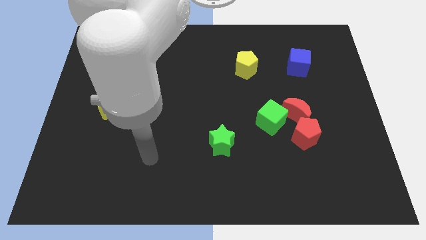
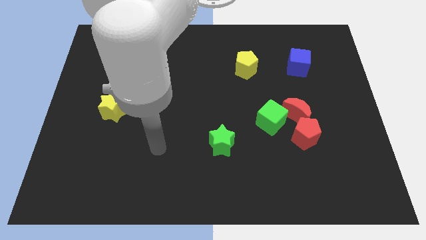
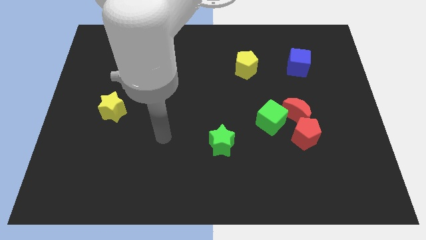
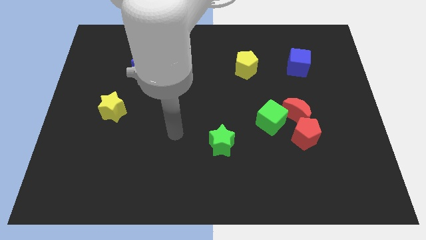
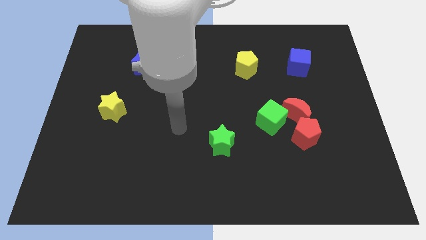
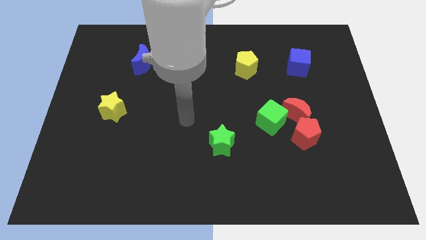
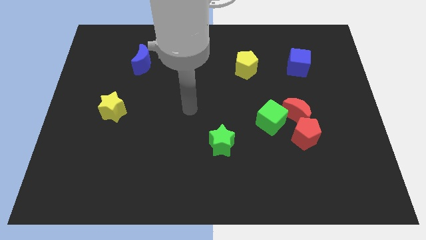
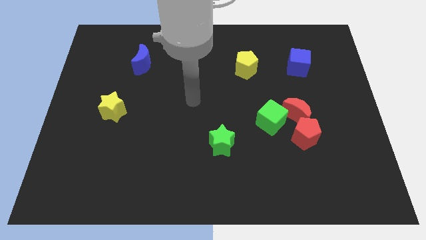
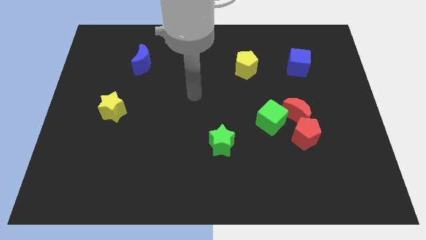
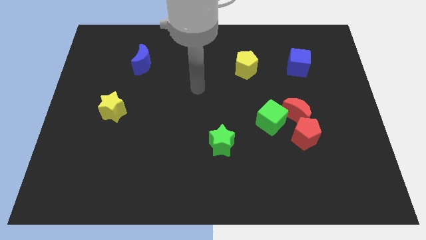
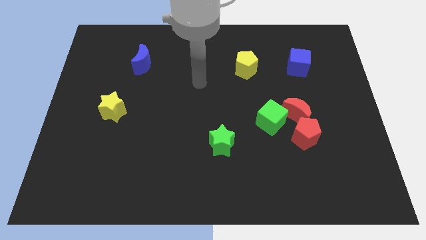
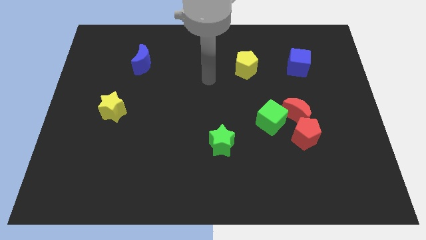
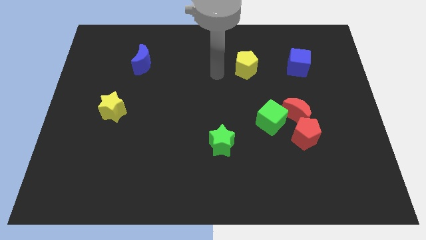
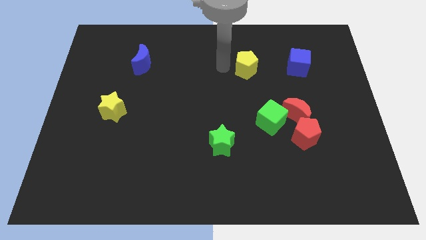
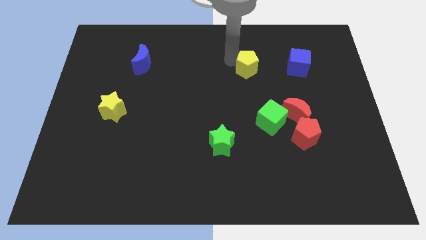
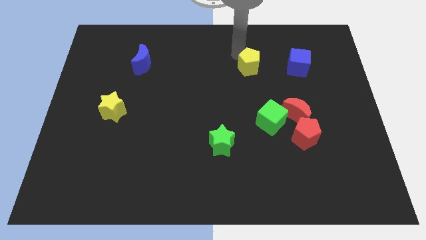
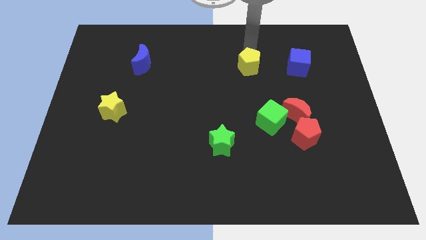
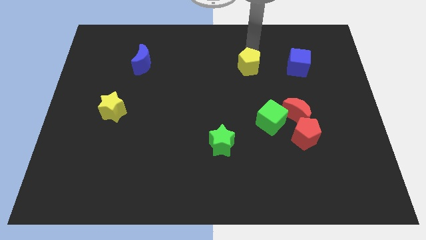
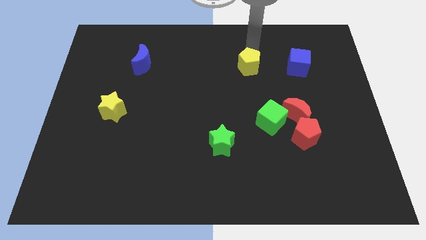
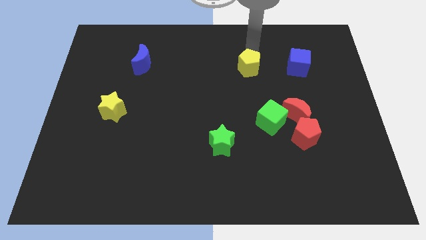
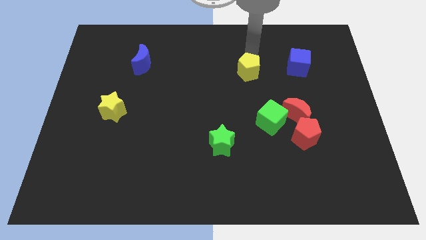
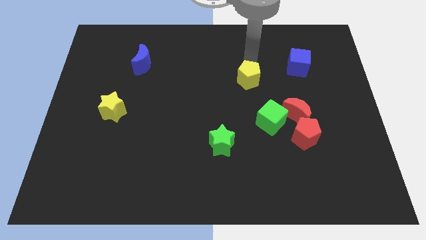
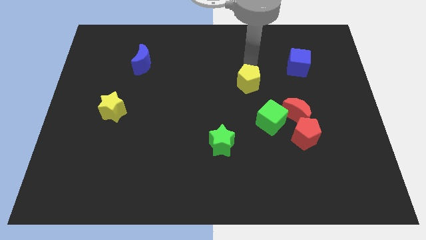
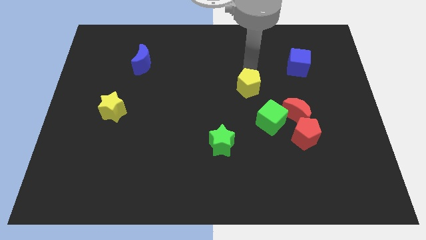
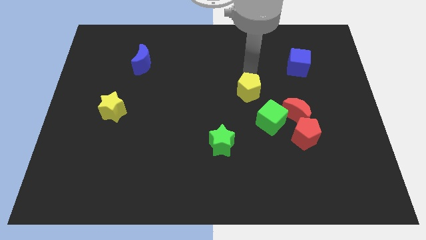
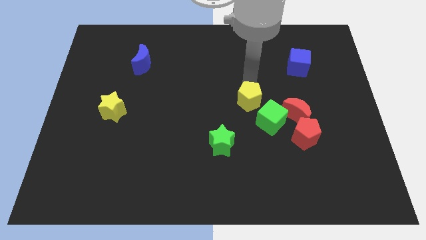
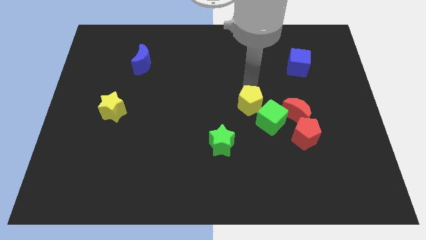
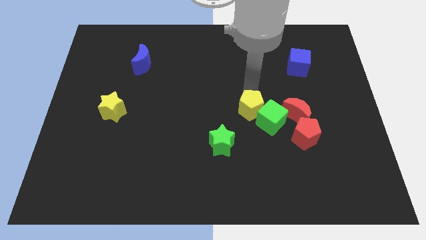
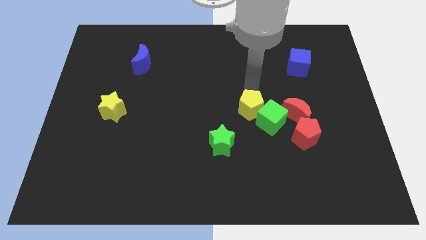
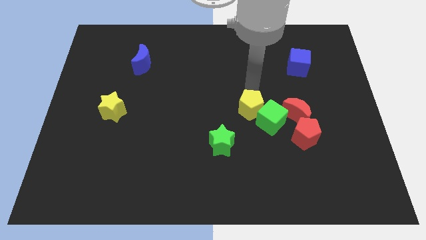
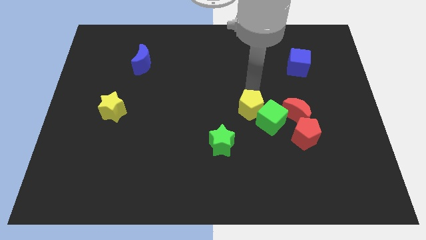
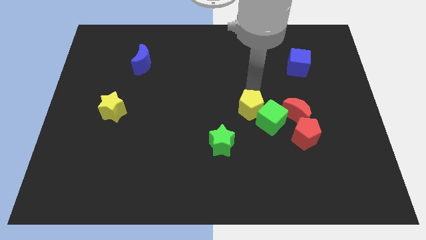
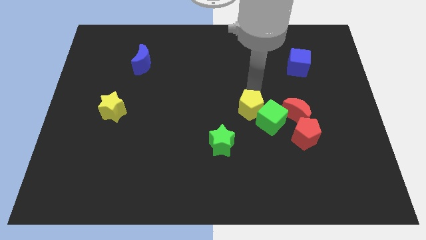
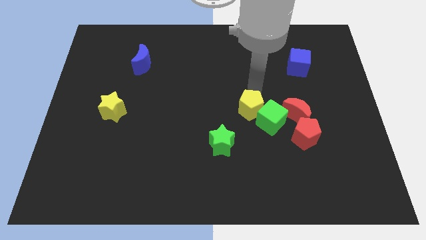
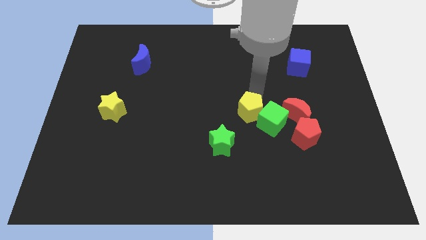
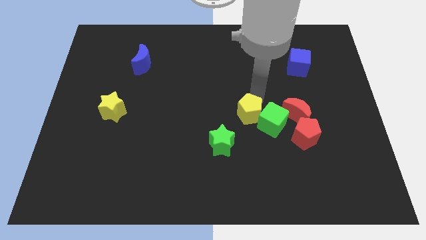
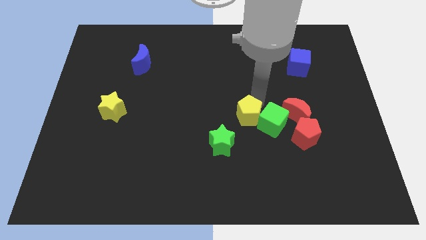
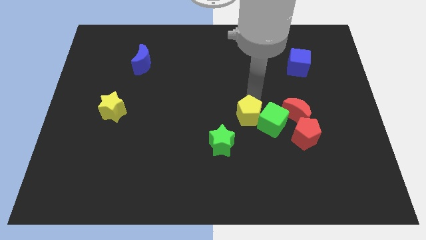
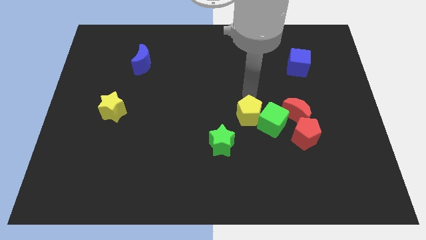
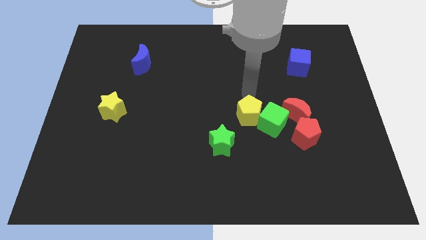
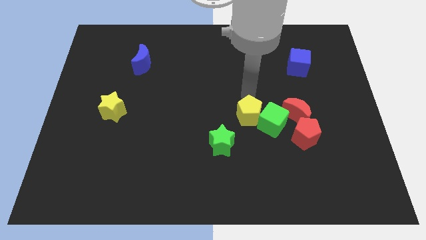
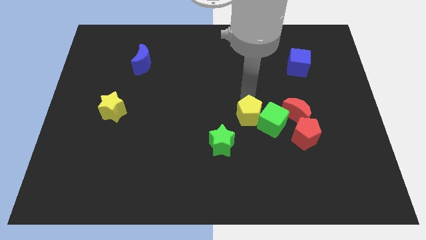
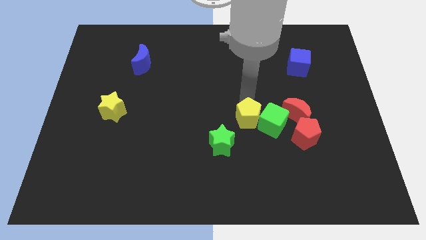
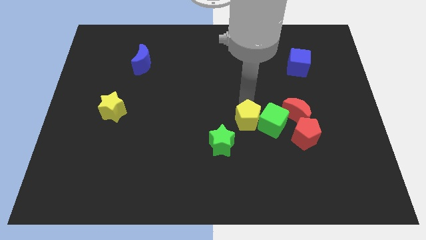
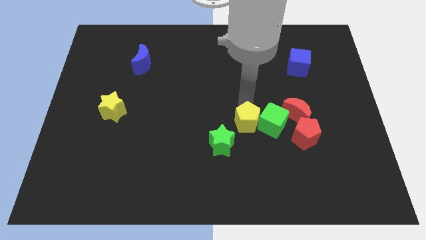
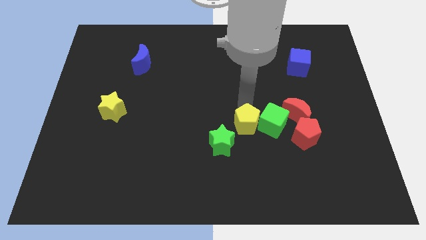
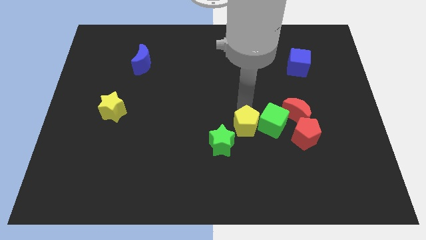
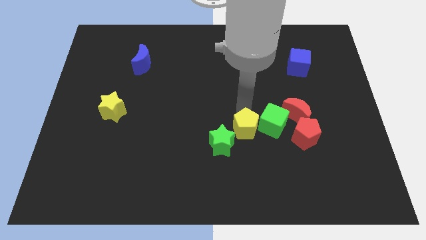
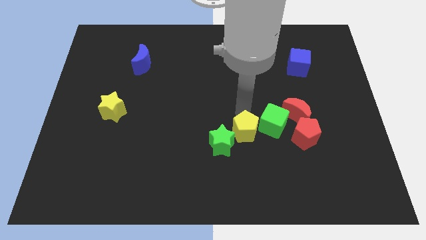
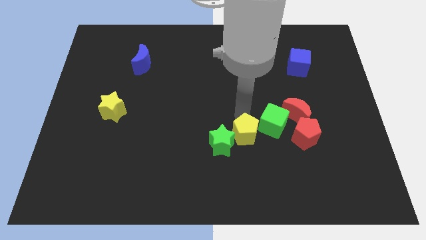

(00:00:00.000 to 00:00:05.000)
slide the yellow pentagon down

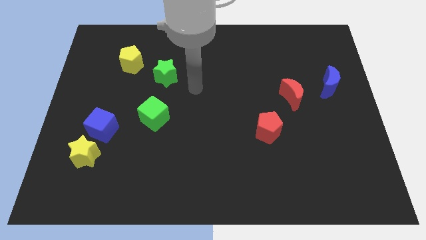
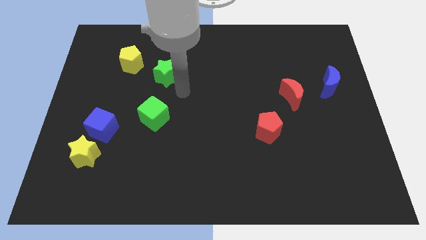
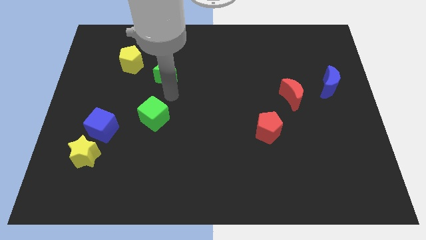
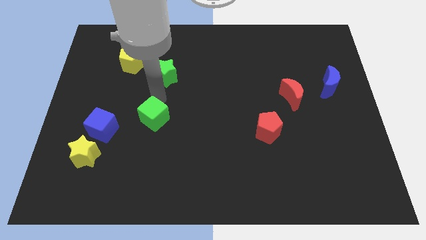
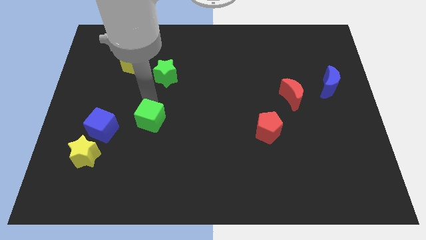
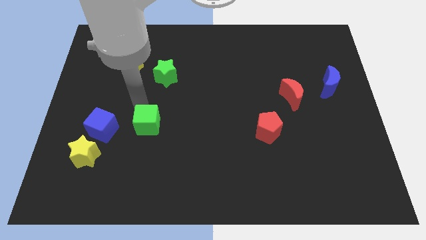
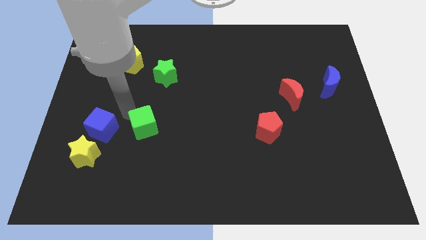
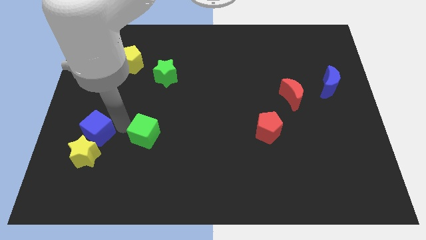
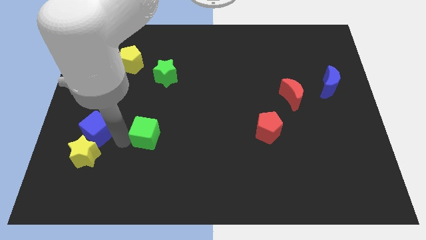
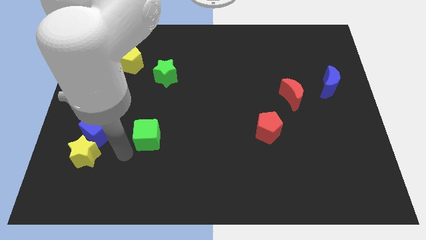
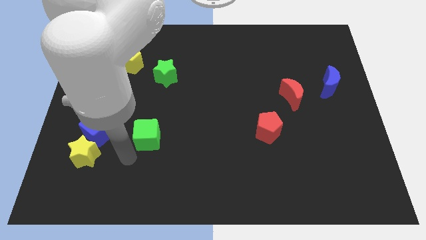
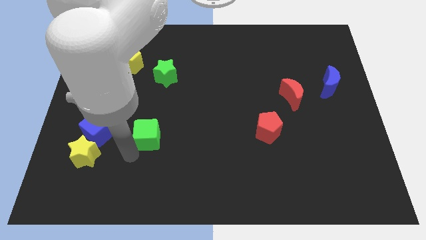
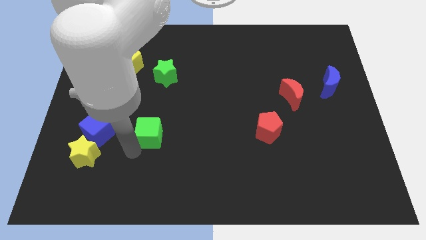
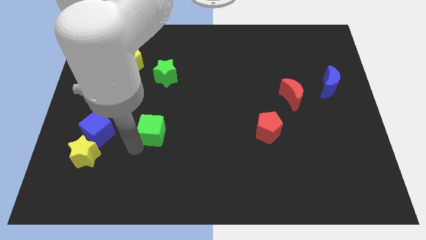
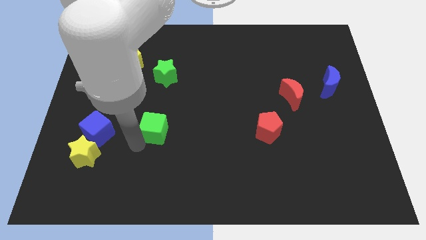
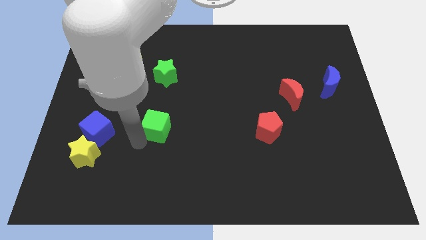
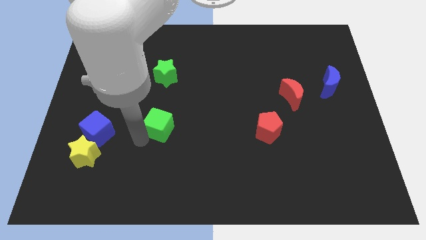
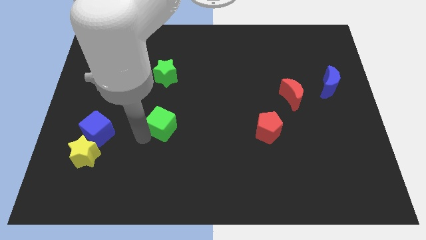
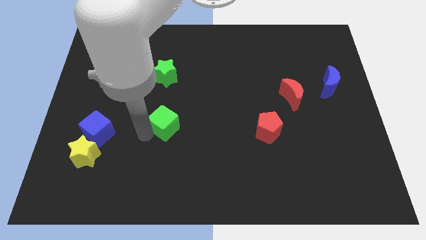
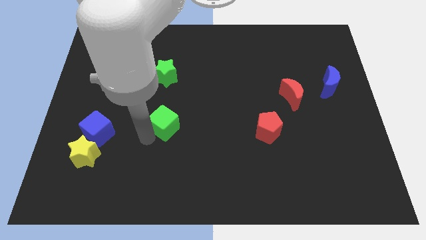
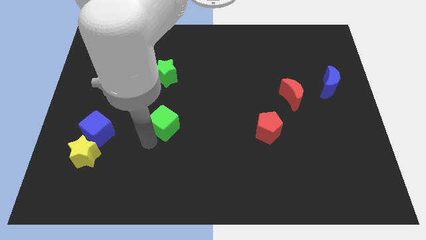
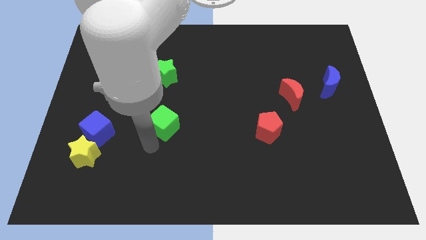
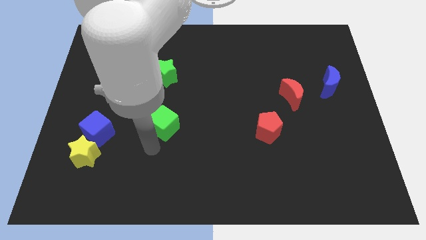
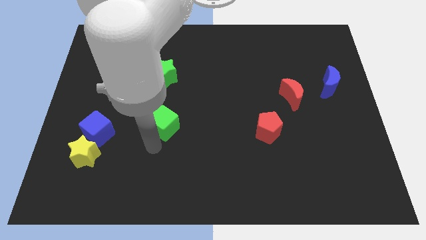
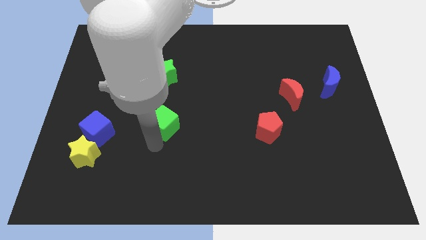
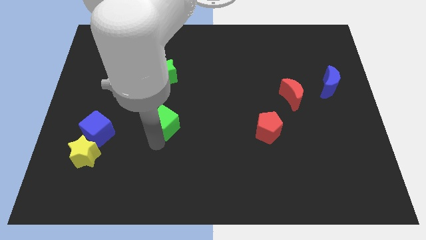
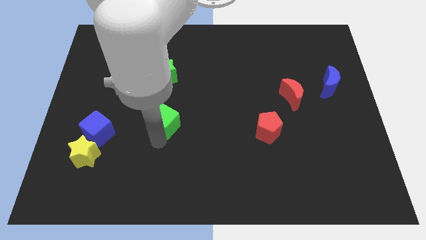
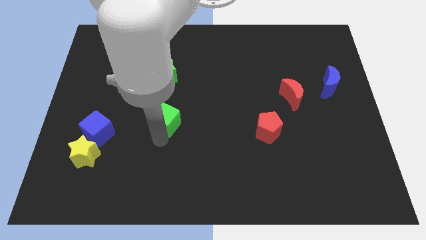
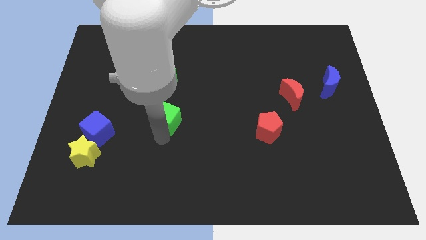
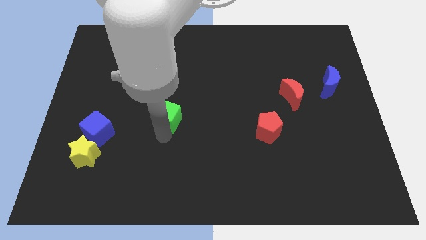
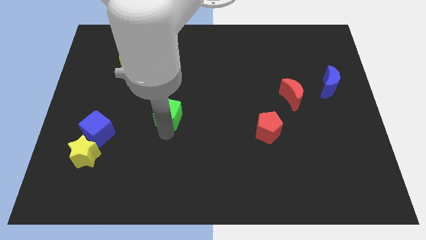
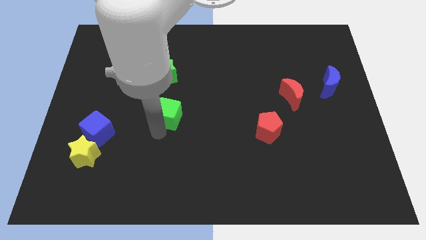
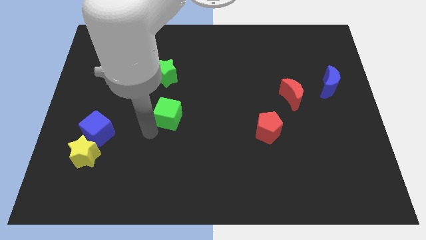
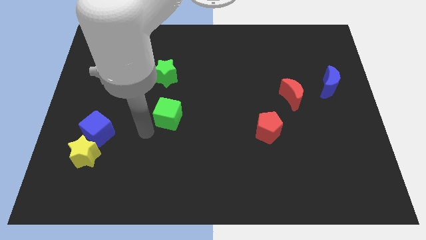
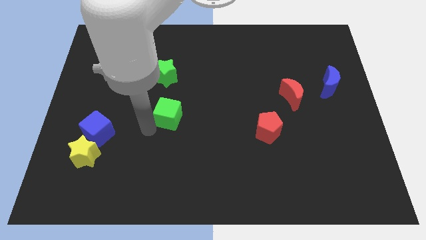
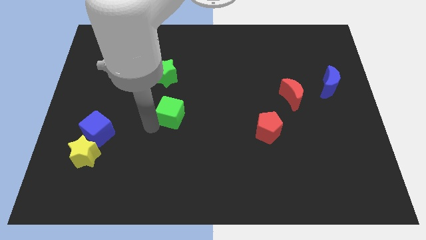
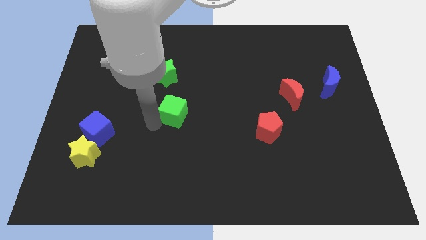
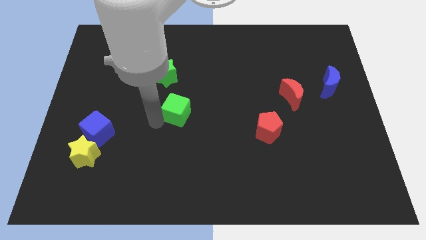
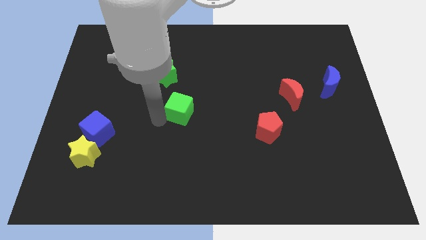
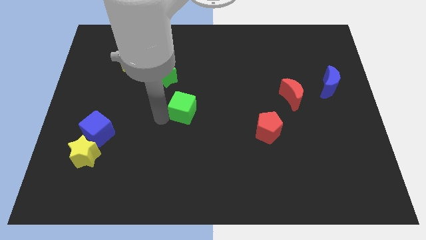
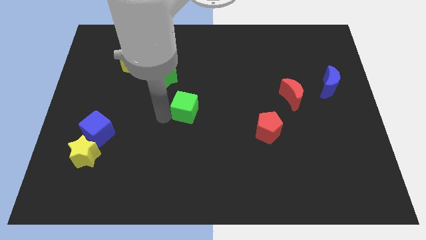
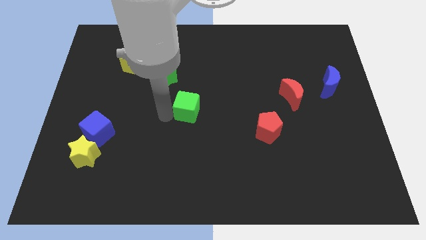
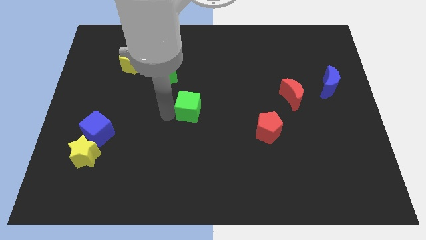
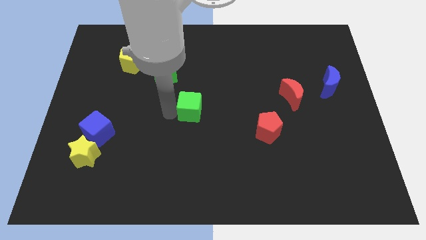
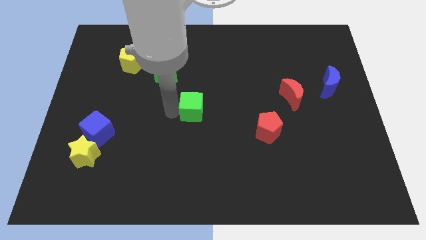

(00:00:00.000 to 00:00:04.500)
slightly move the green cube upwards and right
